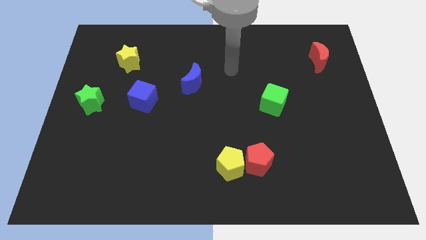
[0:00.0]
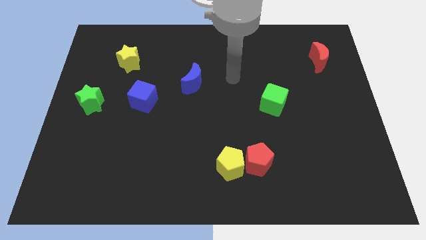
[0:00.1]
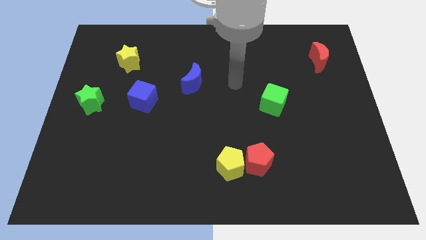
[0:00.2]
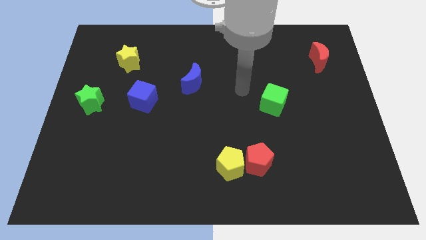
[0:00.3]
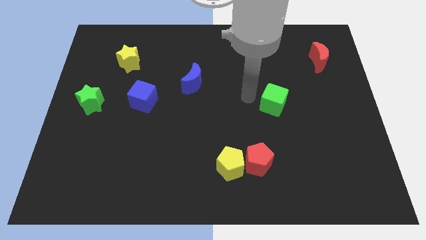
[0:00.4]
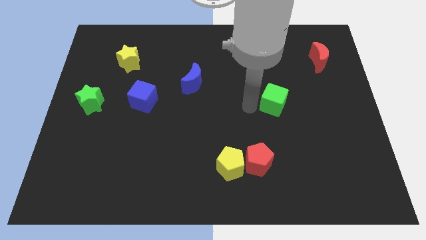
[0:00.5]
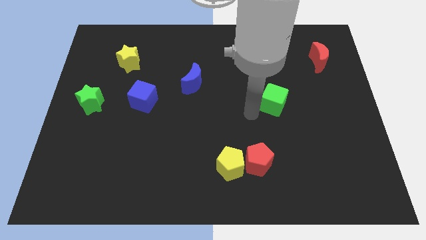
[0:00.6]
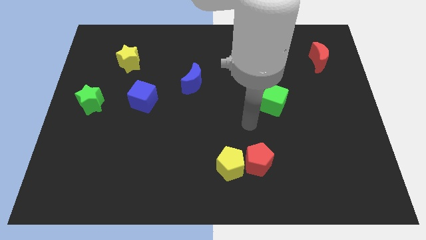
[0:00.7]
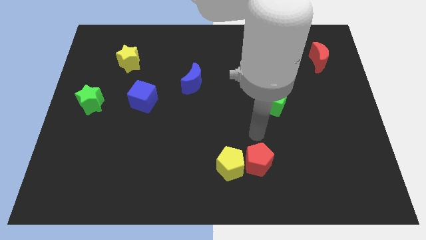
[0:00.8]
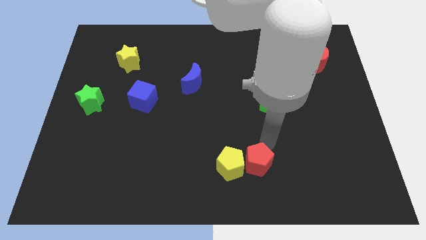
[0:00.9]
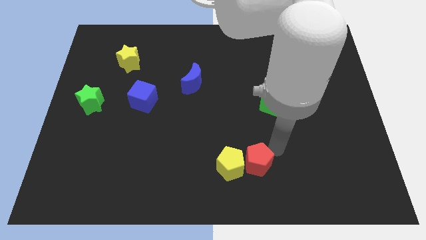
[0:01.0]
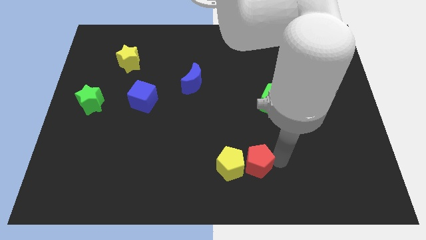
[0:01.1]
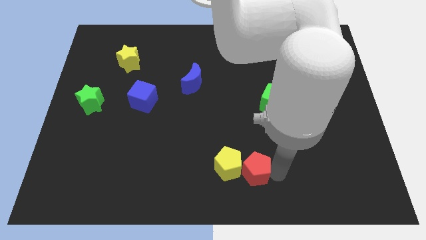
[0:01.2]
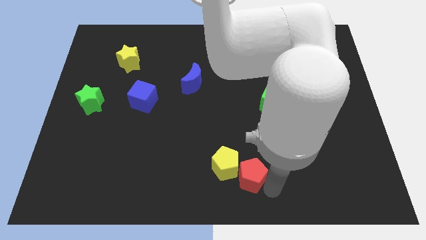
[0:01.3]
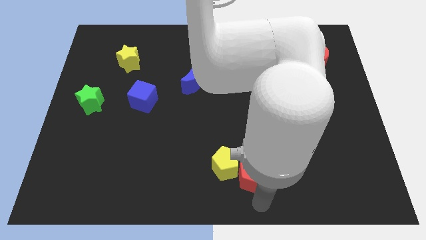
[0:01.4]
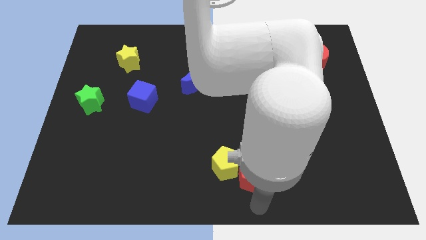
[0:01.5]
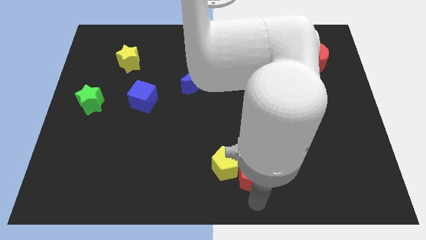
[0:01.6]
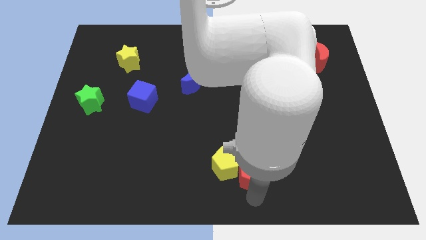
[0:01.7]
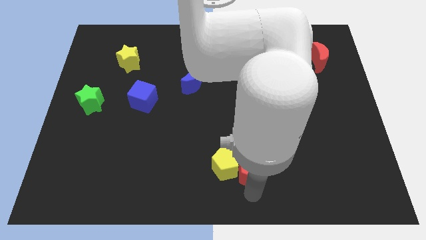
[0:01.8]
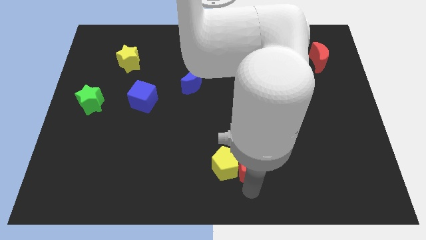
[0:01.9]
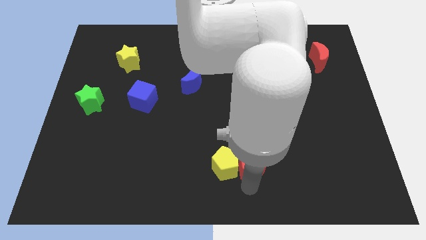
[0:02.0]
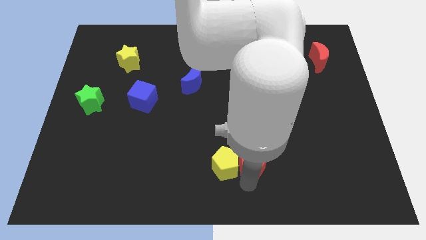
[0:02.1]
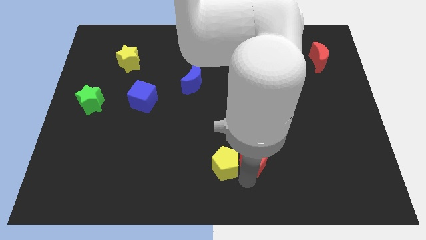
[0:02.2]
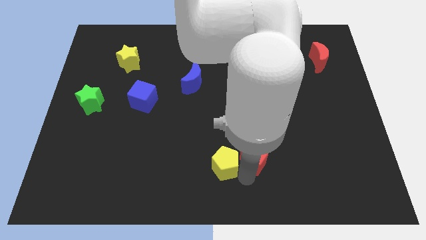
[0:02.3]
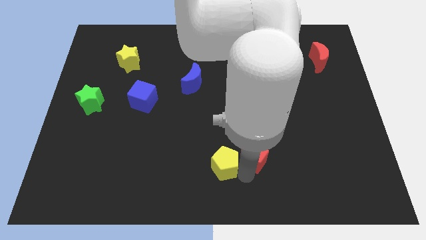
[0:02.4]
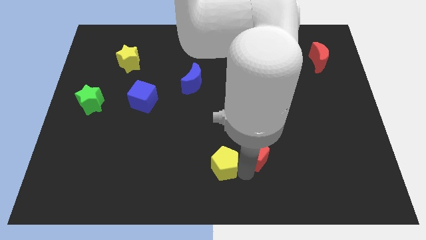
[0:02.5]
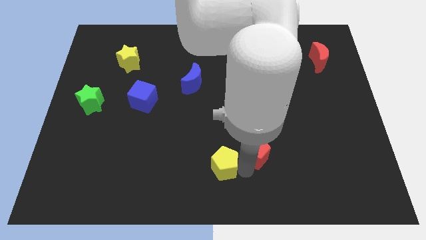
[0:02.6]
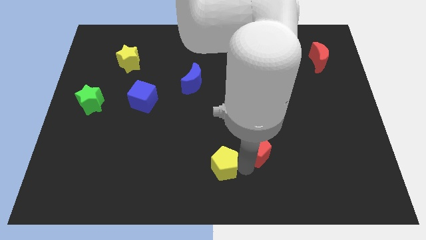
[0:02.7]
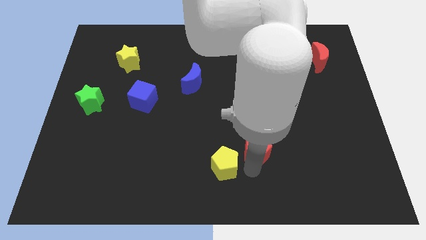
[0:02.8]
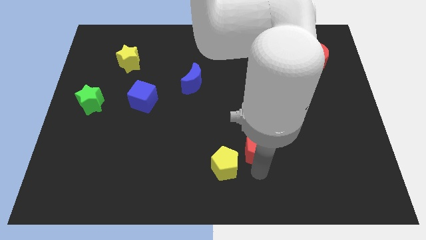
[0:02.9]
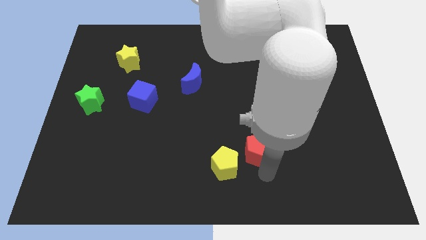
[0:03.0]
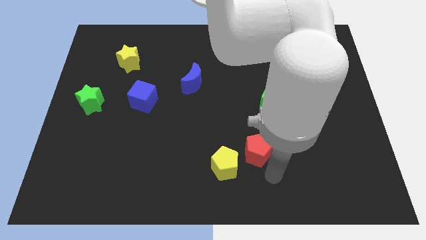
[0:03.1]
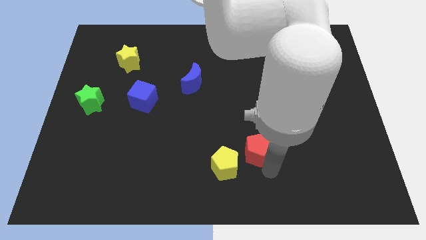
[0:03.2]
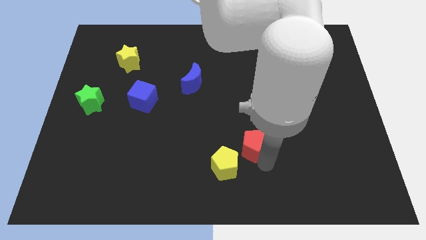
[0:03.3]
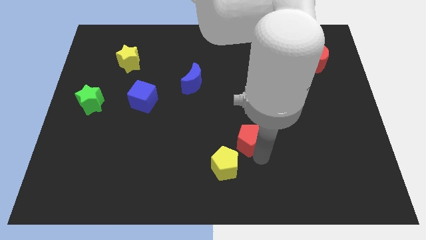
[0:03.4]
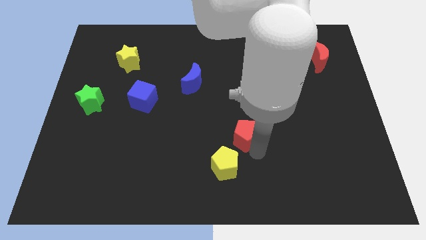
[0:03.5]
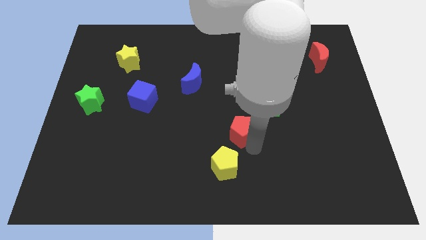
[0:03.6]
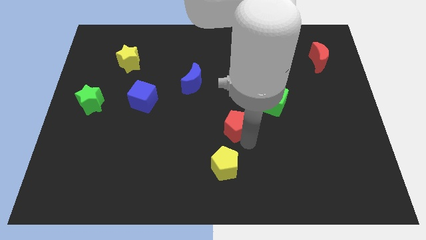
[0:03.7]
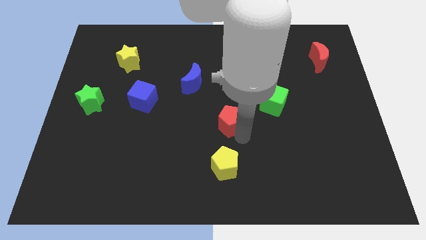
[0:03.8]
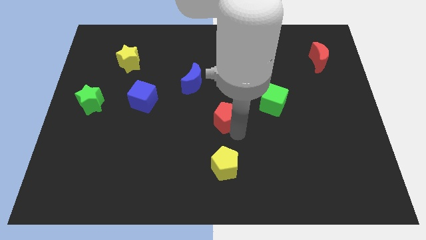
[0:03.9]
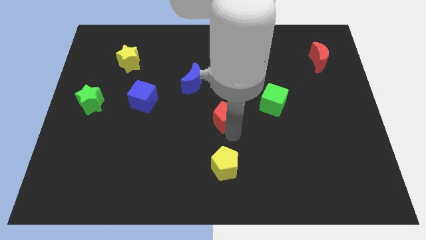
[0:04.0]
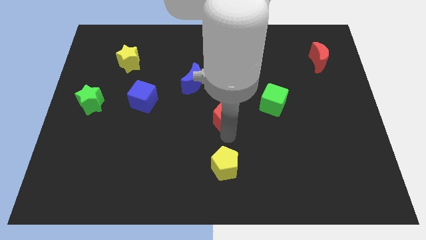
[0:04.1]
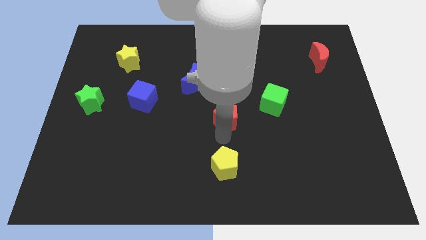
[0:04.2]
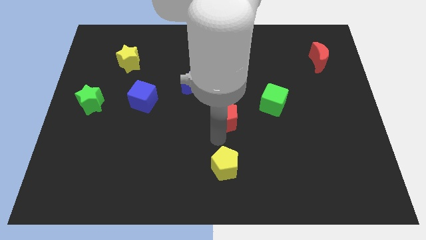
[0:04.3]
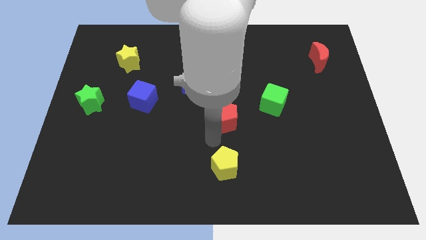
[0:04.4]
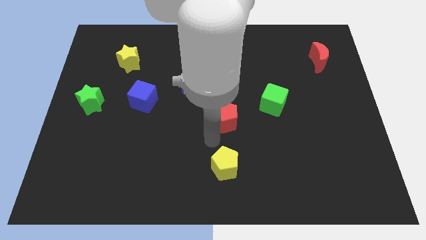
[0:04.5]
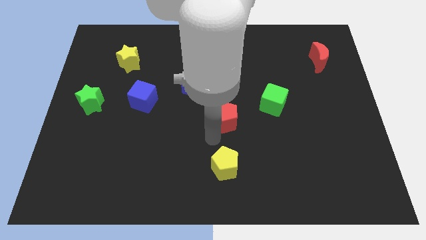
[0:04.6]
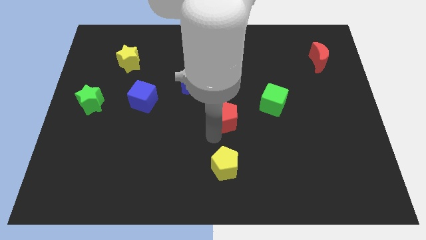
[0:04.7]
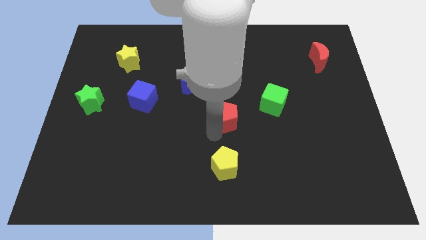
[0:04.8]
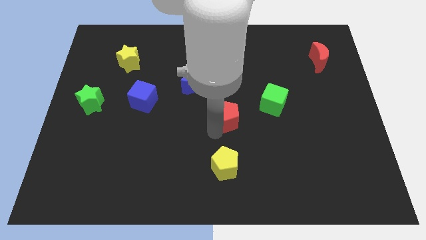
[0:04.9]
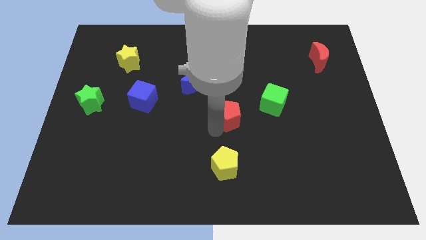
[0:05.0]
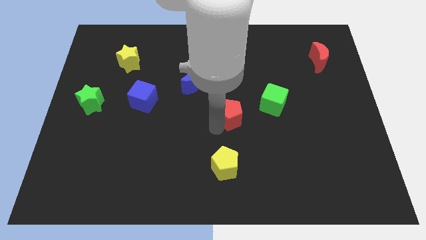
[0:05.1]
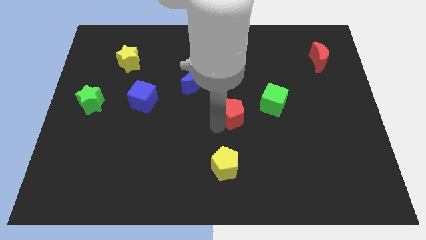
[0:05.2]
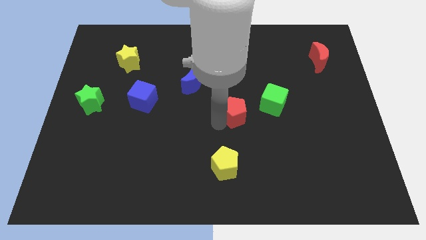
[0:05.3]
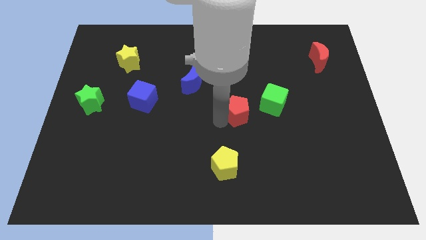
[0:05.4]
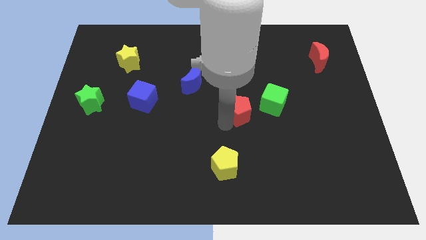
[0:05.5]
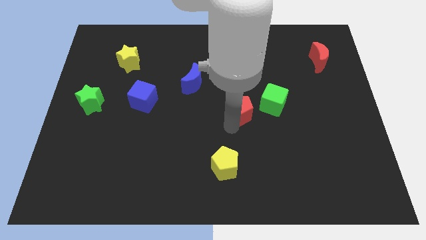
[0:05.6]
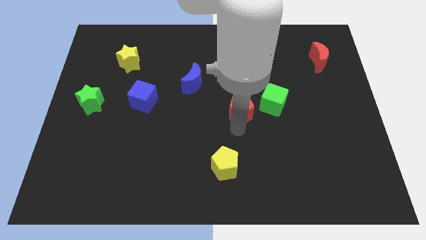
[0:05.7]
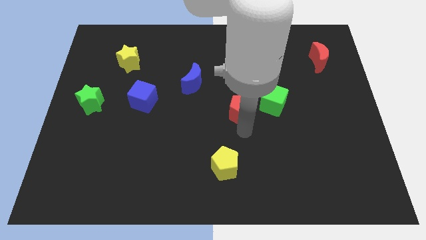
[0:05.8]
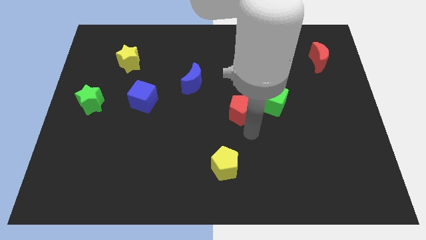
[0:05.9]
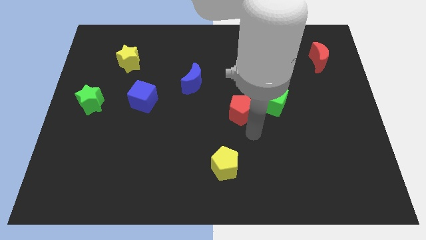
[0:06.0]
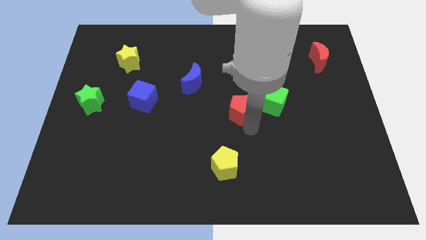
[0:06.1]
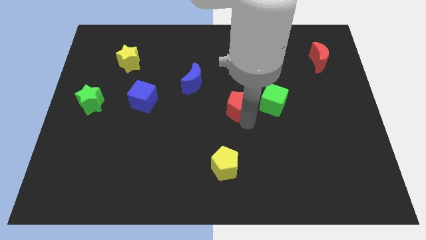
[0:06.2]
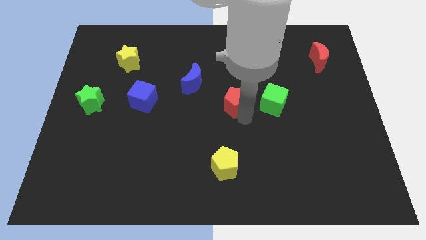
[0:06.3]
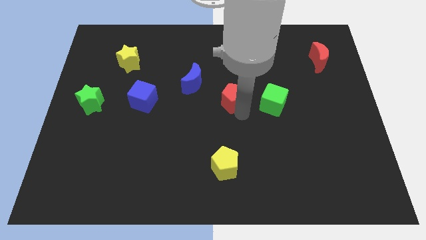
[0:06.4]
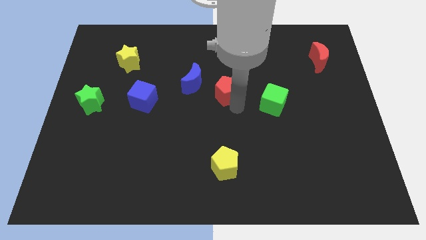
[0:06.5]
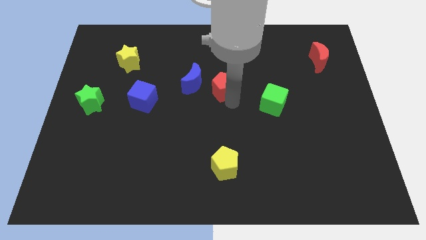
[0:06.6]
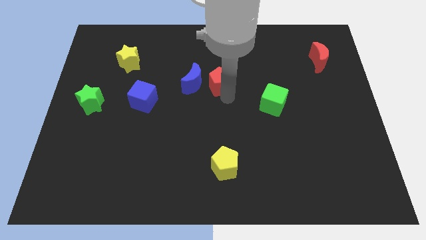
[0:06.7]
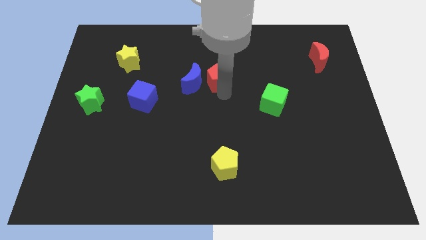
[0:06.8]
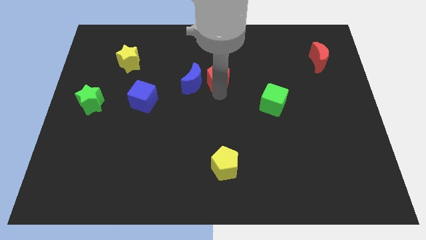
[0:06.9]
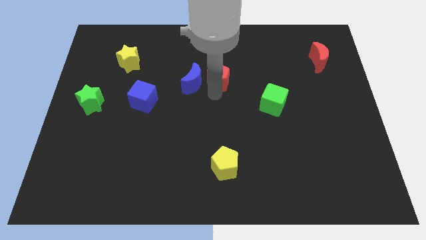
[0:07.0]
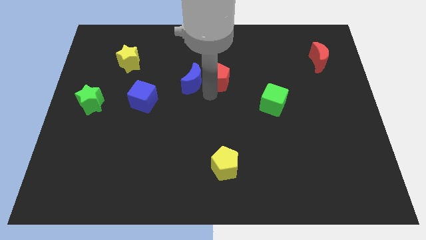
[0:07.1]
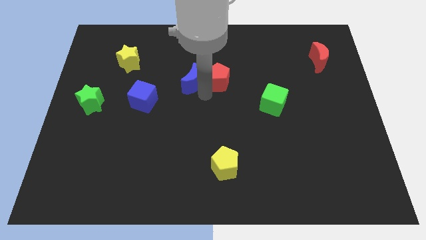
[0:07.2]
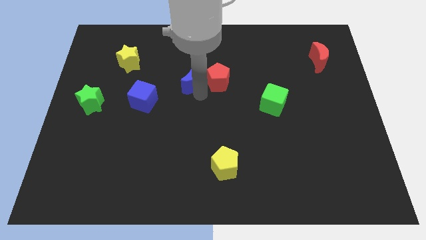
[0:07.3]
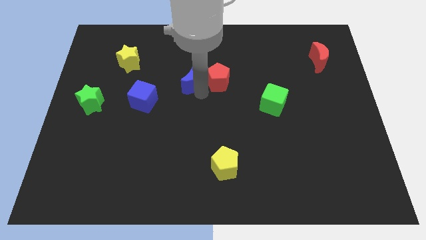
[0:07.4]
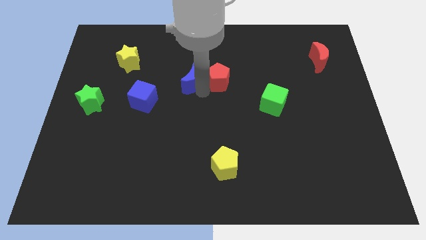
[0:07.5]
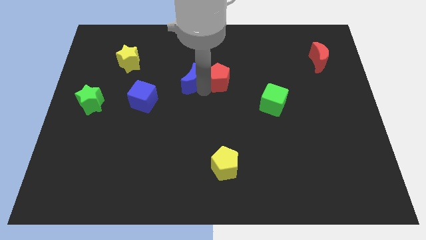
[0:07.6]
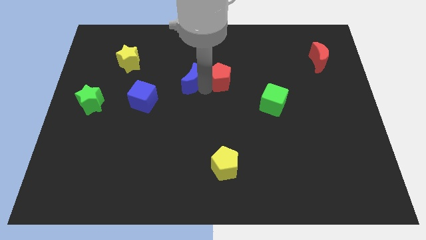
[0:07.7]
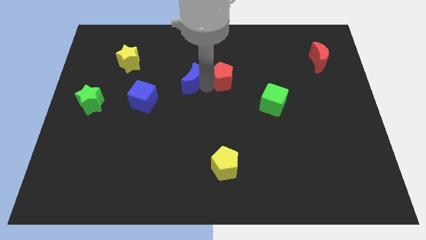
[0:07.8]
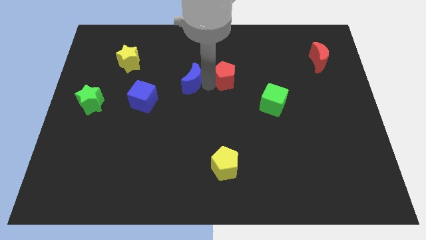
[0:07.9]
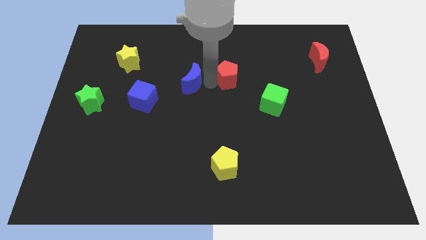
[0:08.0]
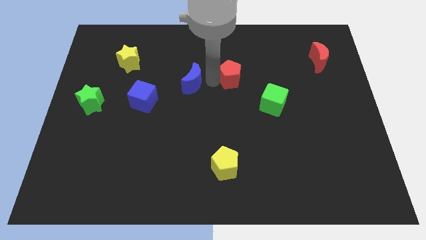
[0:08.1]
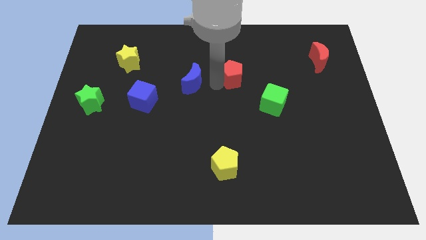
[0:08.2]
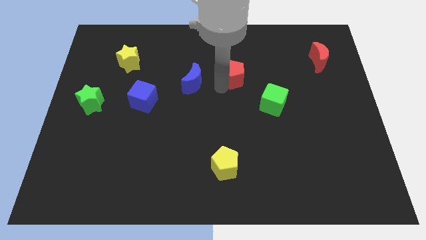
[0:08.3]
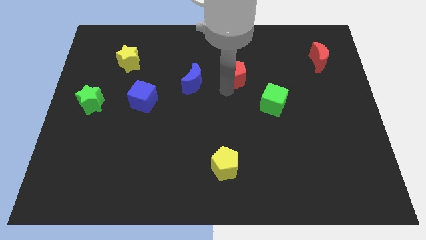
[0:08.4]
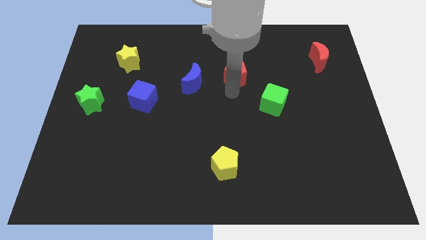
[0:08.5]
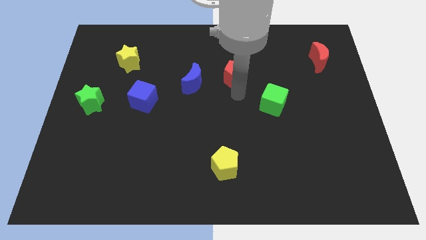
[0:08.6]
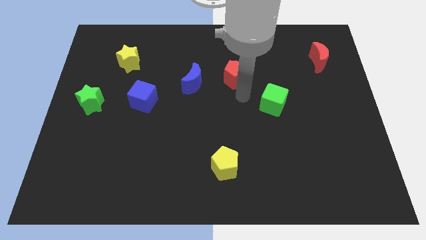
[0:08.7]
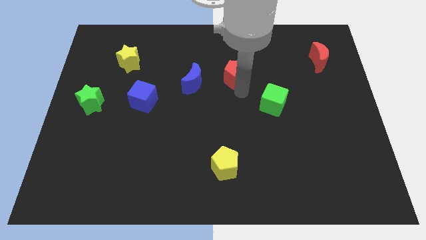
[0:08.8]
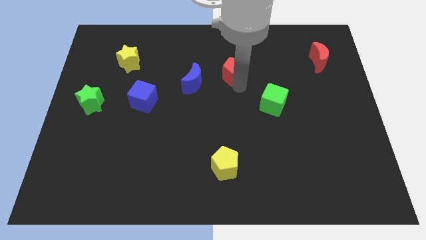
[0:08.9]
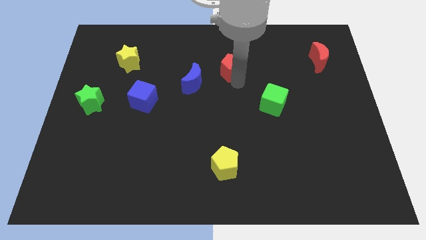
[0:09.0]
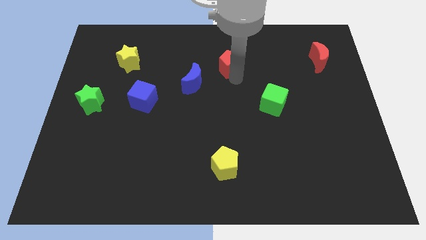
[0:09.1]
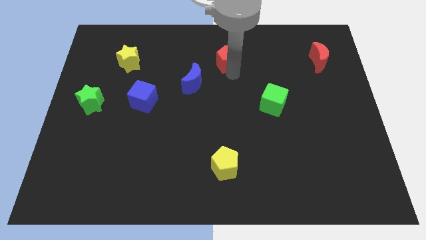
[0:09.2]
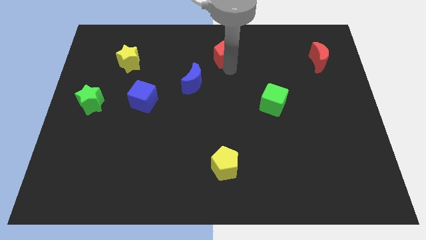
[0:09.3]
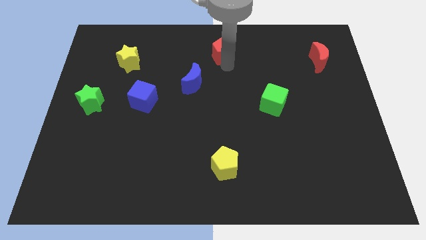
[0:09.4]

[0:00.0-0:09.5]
move the red pentagon to the towards your base
